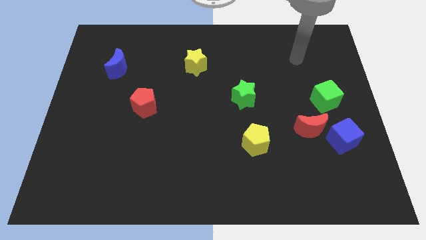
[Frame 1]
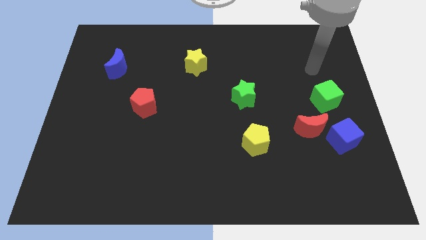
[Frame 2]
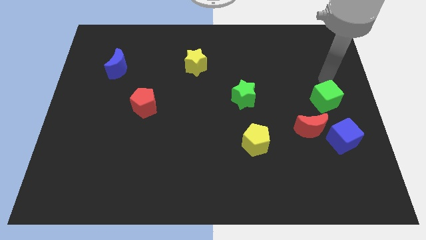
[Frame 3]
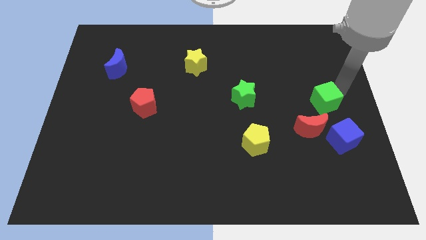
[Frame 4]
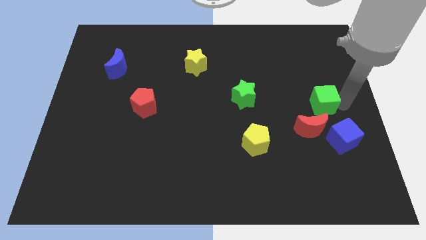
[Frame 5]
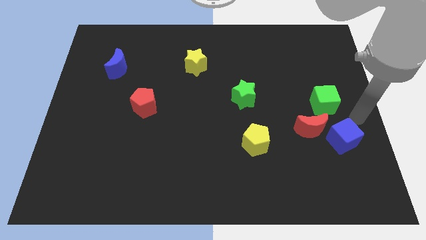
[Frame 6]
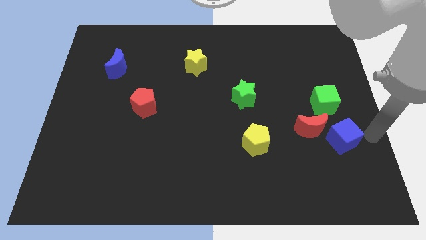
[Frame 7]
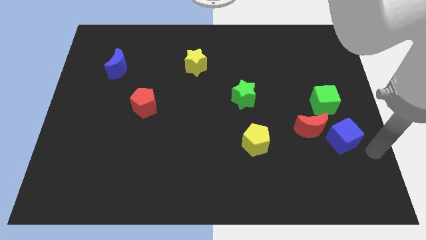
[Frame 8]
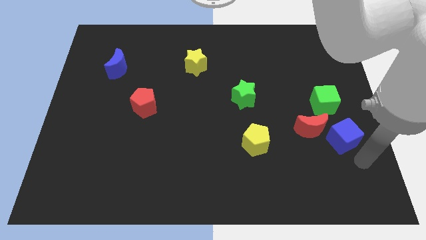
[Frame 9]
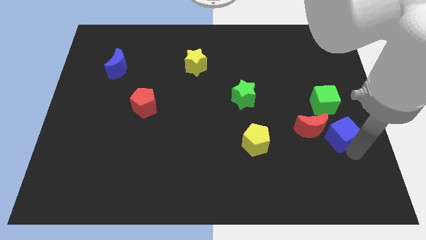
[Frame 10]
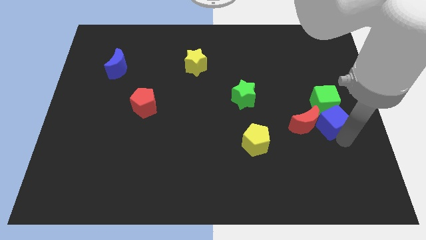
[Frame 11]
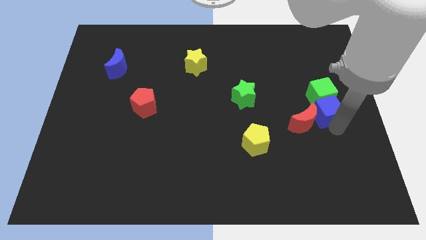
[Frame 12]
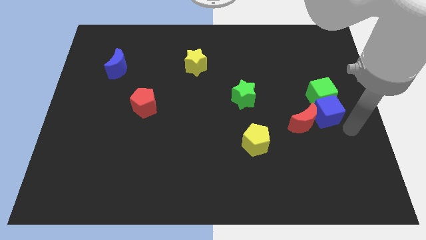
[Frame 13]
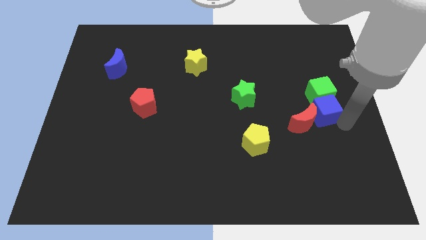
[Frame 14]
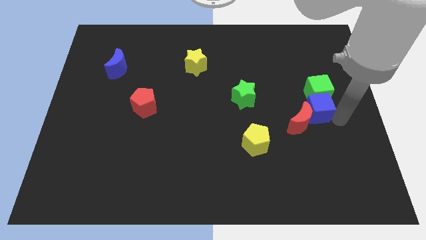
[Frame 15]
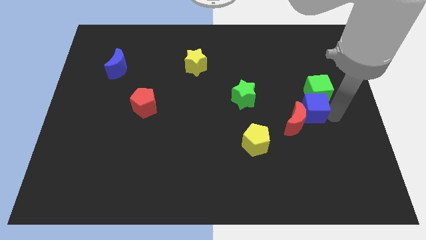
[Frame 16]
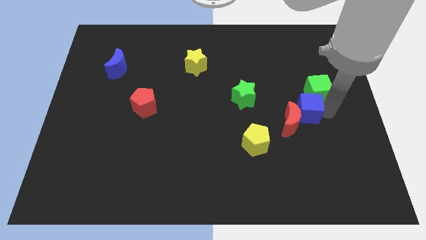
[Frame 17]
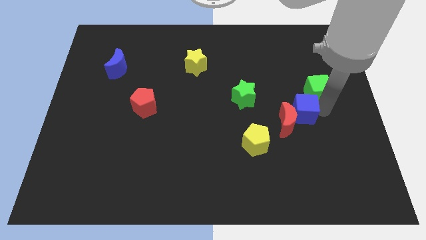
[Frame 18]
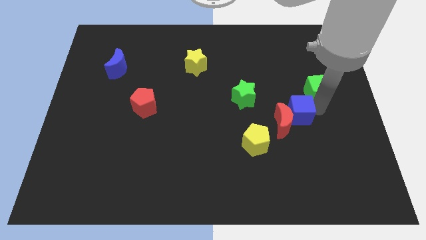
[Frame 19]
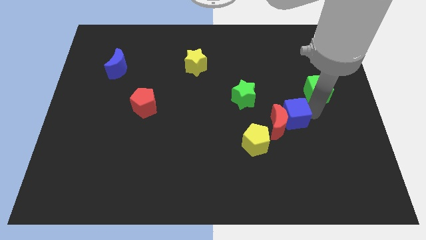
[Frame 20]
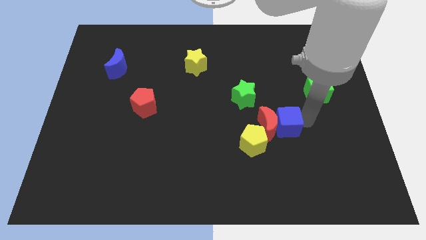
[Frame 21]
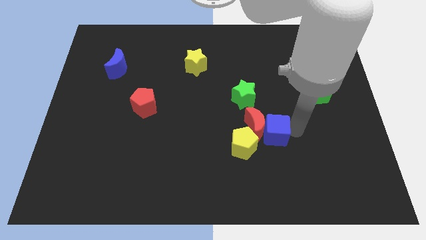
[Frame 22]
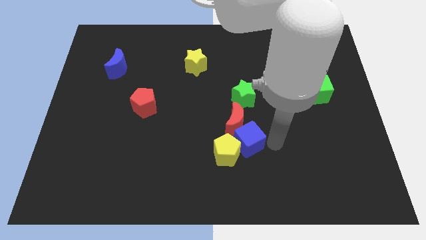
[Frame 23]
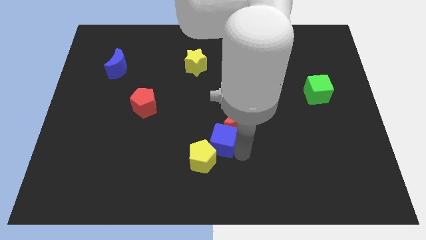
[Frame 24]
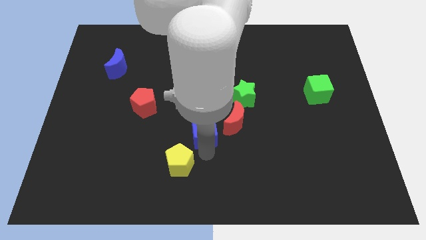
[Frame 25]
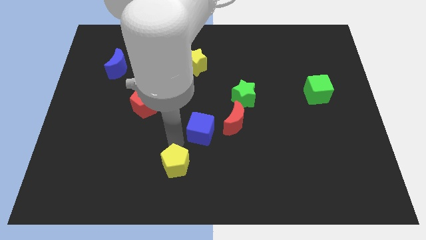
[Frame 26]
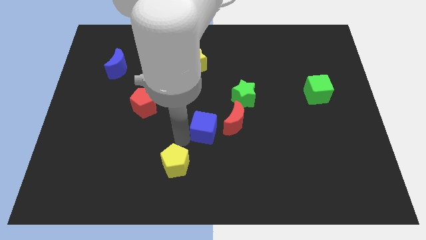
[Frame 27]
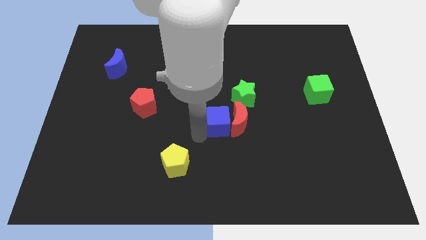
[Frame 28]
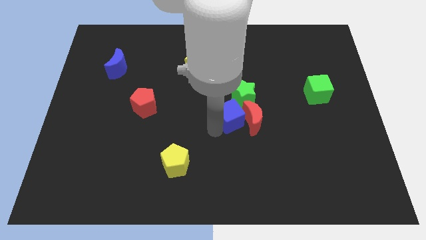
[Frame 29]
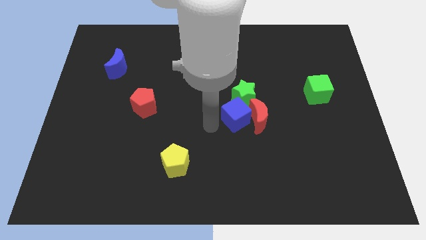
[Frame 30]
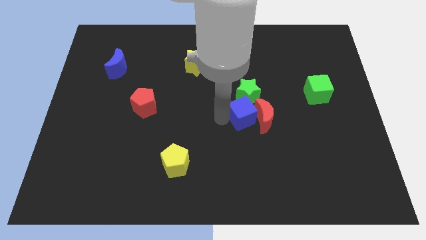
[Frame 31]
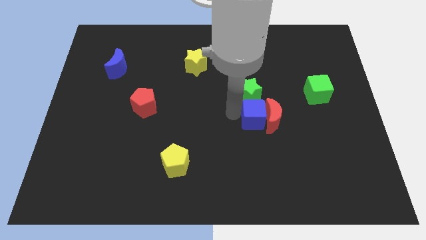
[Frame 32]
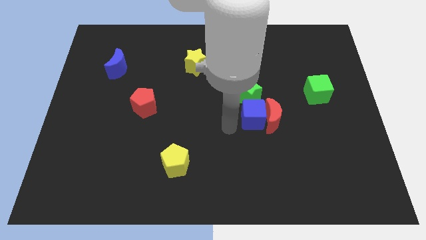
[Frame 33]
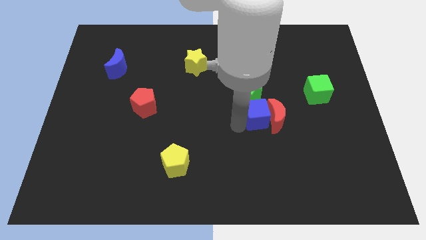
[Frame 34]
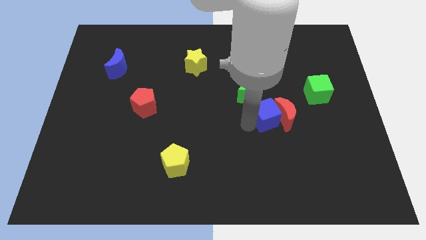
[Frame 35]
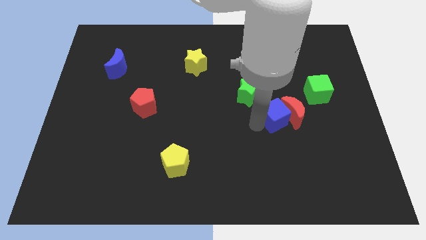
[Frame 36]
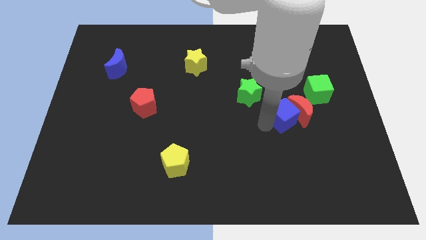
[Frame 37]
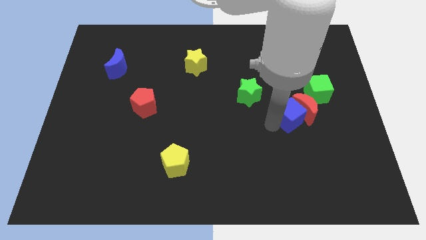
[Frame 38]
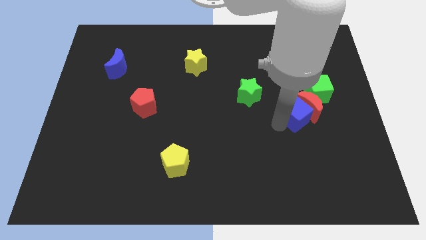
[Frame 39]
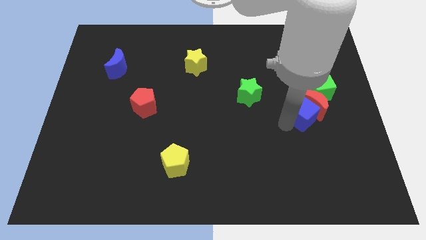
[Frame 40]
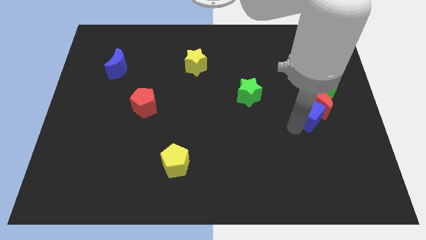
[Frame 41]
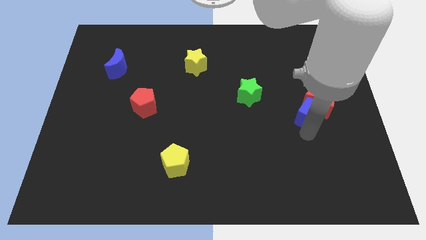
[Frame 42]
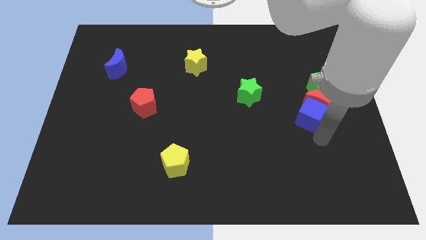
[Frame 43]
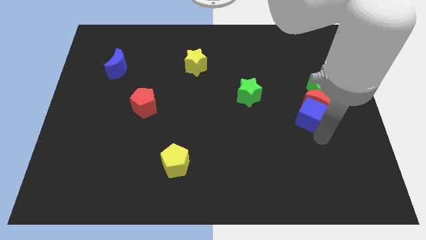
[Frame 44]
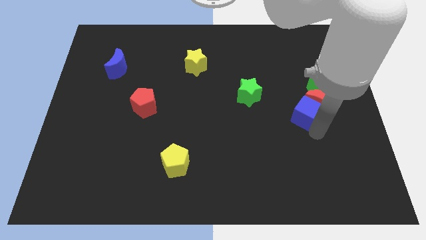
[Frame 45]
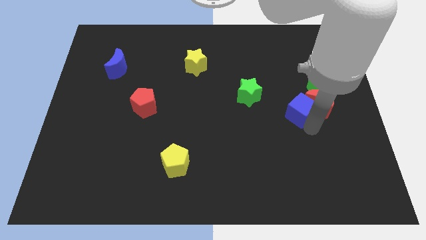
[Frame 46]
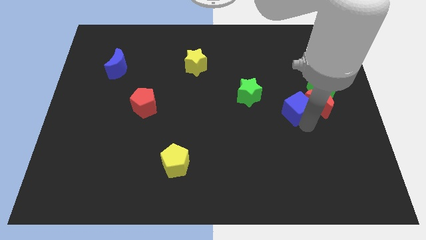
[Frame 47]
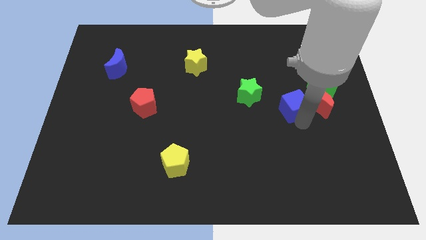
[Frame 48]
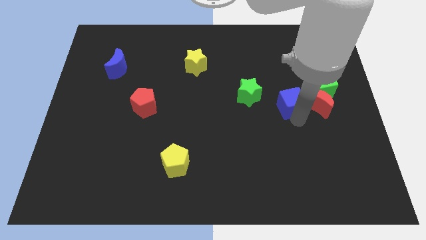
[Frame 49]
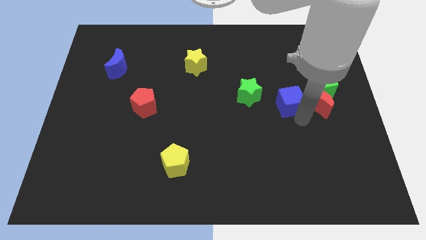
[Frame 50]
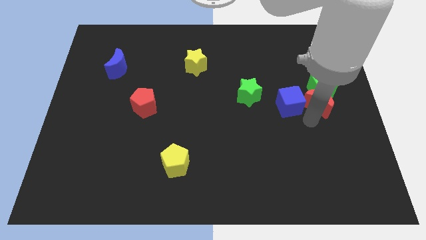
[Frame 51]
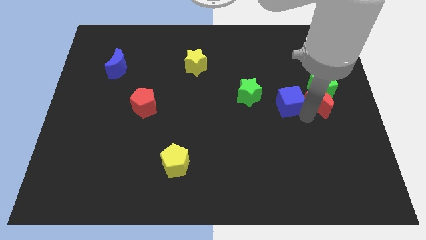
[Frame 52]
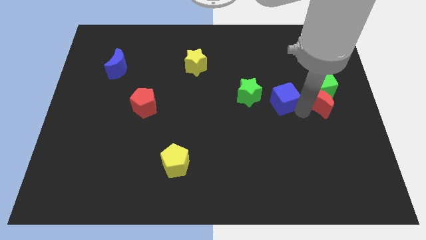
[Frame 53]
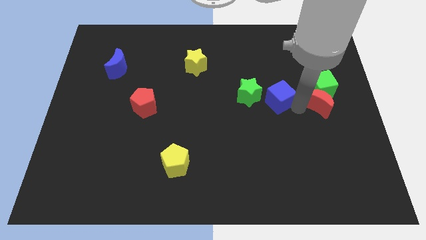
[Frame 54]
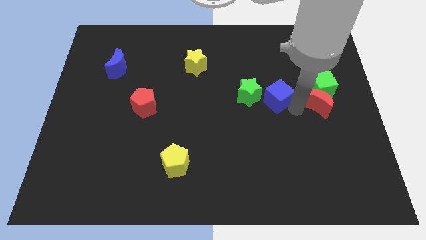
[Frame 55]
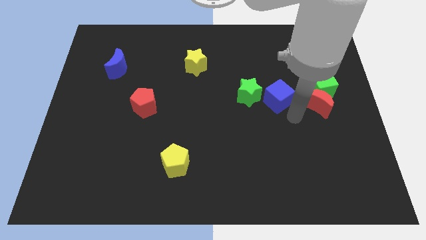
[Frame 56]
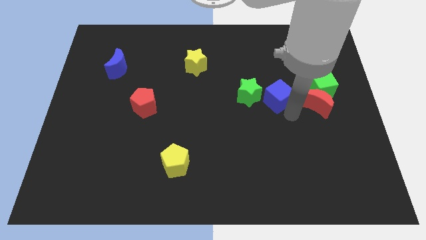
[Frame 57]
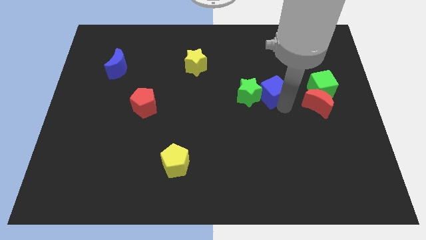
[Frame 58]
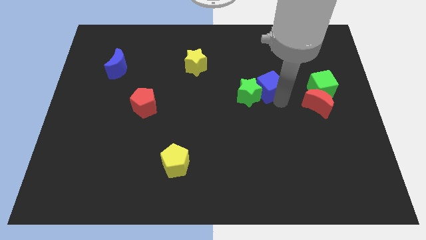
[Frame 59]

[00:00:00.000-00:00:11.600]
slide the blue cube upwards and left diagonally

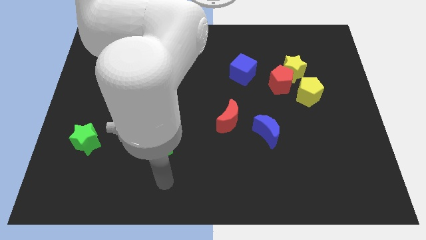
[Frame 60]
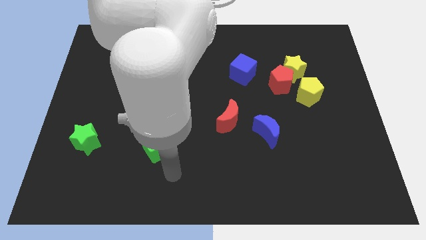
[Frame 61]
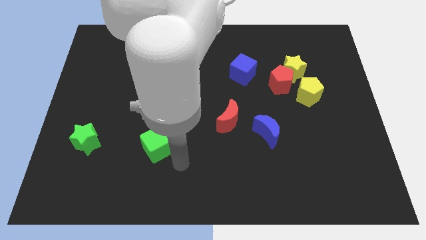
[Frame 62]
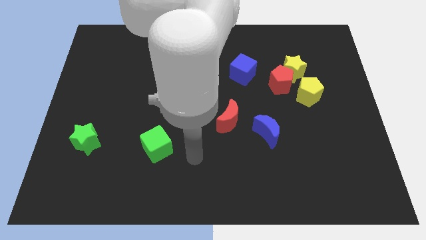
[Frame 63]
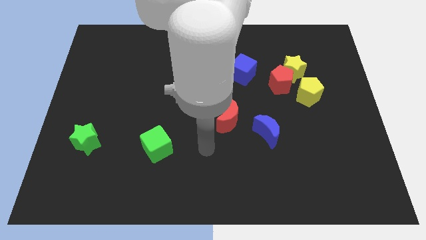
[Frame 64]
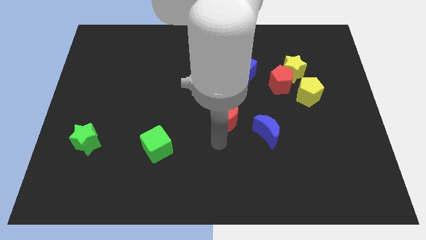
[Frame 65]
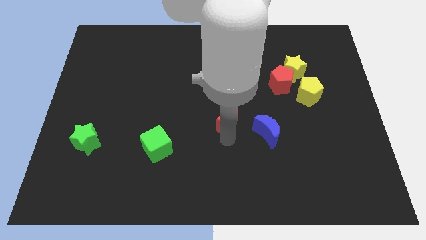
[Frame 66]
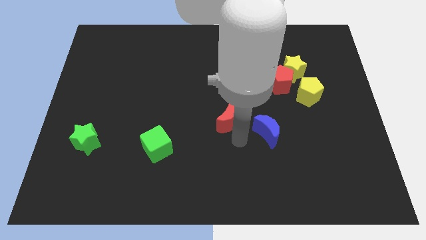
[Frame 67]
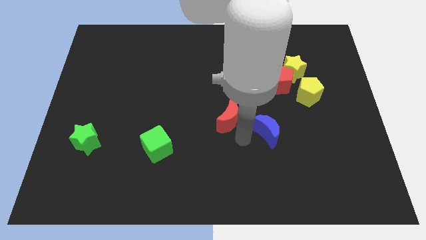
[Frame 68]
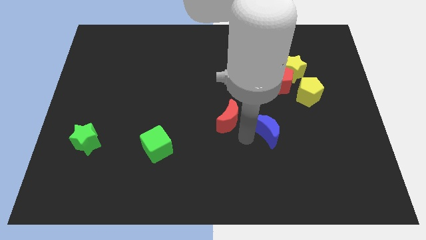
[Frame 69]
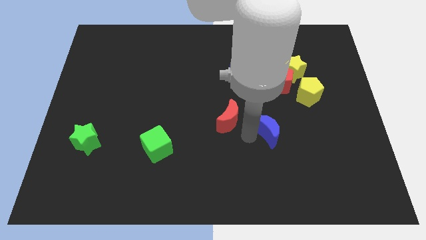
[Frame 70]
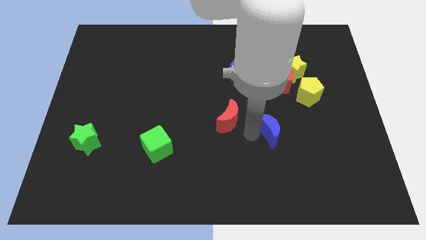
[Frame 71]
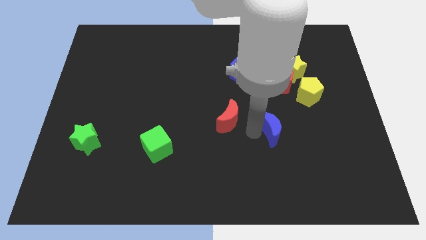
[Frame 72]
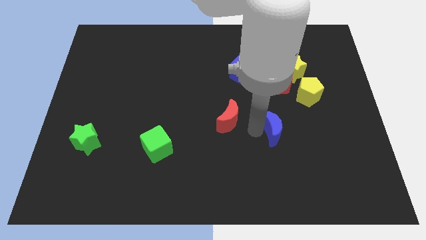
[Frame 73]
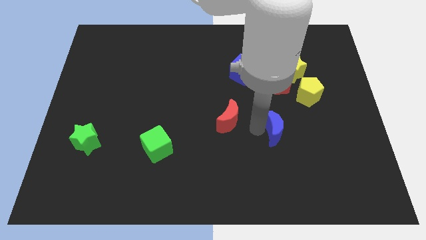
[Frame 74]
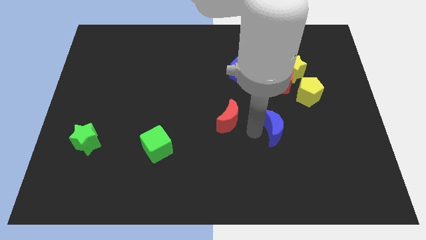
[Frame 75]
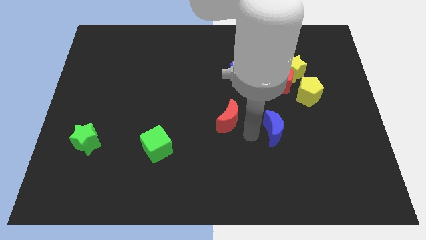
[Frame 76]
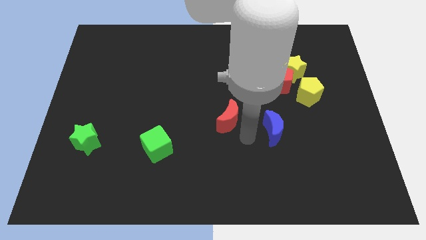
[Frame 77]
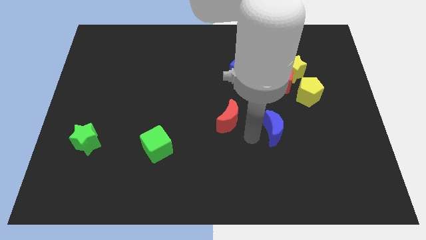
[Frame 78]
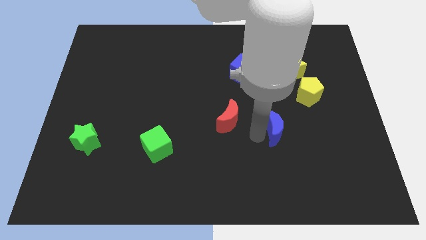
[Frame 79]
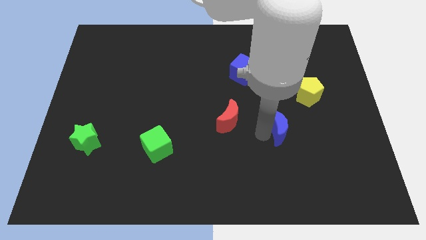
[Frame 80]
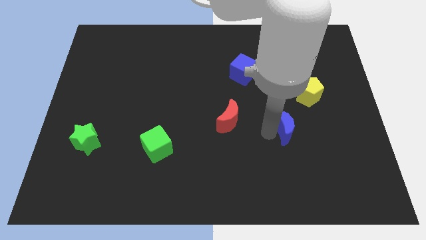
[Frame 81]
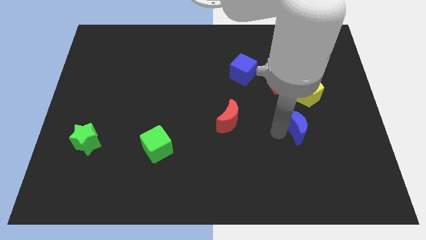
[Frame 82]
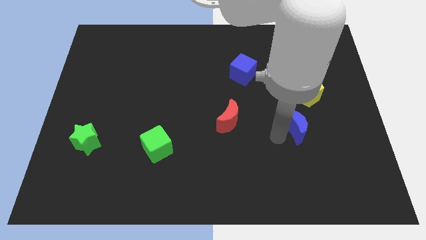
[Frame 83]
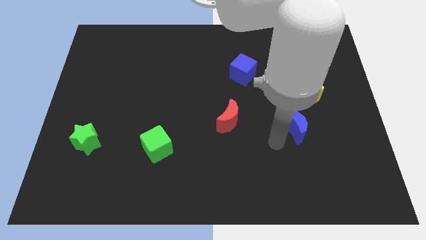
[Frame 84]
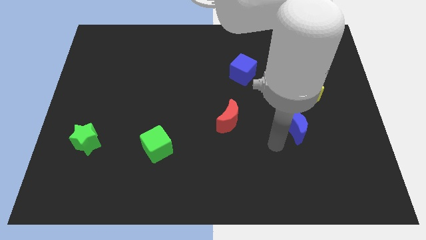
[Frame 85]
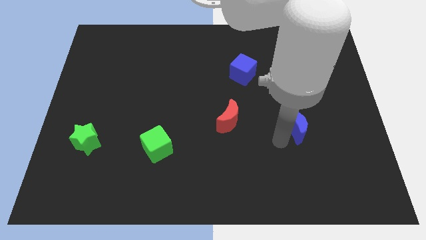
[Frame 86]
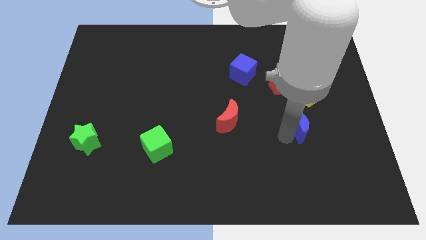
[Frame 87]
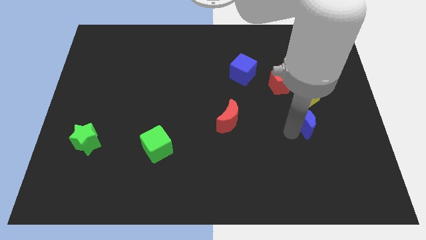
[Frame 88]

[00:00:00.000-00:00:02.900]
slide the blue moon up and right somewhat
